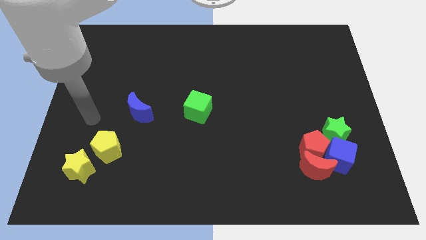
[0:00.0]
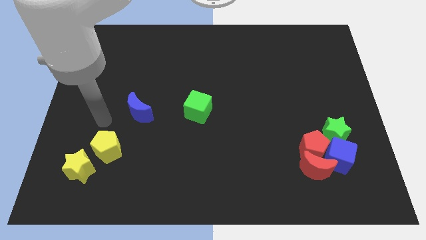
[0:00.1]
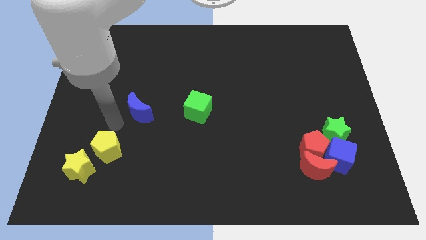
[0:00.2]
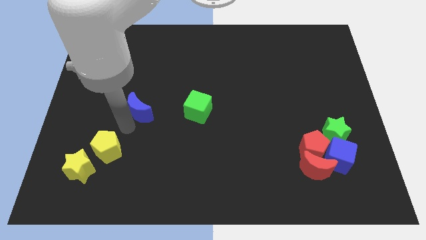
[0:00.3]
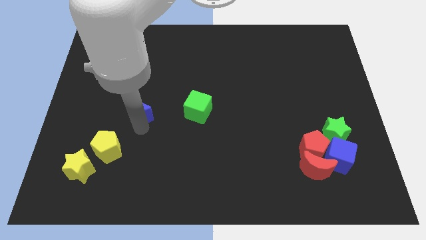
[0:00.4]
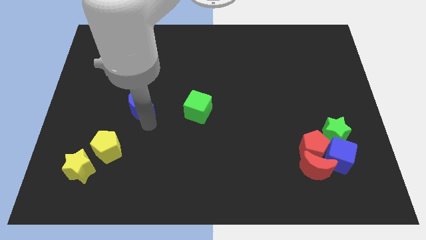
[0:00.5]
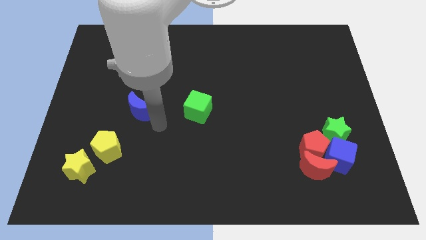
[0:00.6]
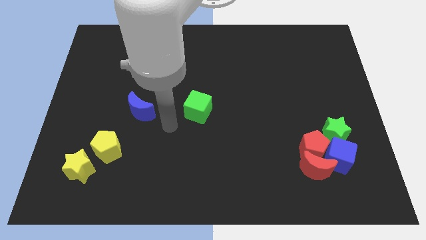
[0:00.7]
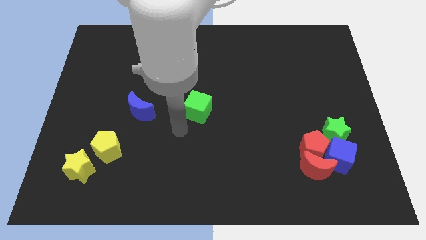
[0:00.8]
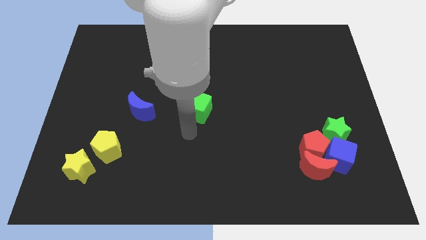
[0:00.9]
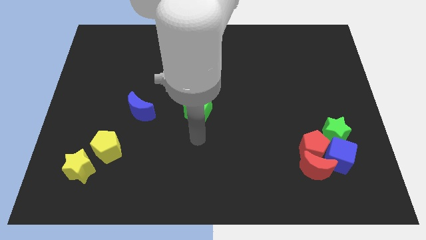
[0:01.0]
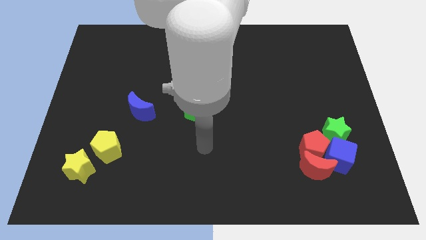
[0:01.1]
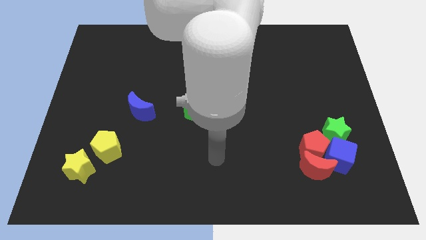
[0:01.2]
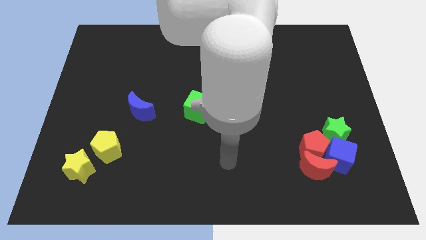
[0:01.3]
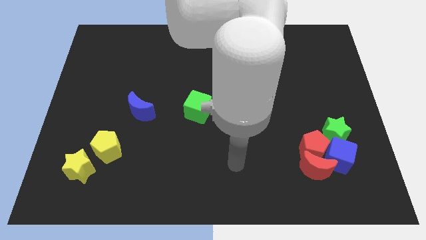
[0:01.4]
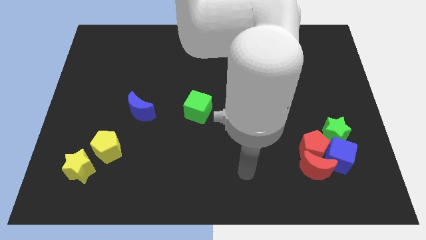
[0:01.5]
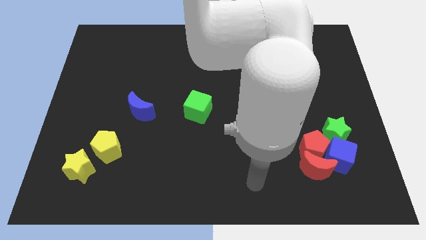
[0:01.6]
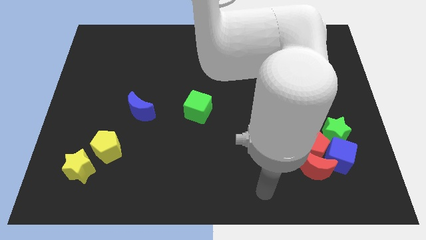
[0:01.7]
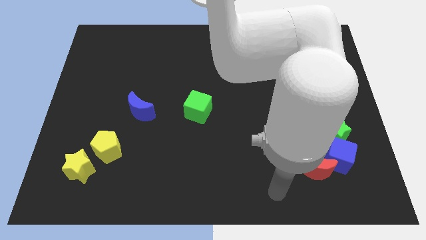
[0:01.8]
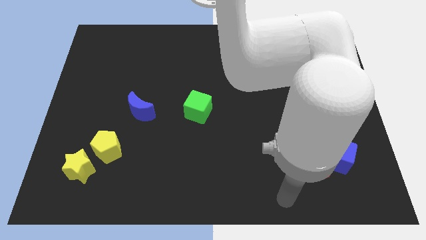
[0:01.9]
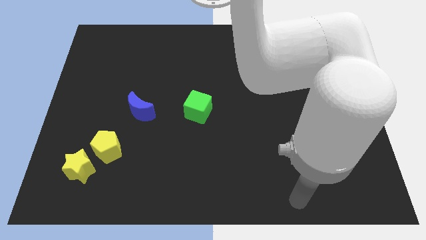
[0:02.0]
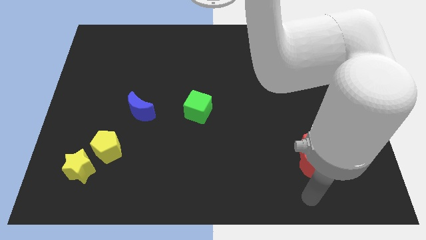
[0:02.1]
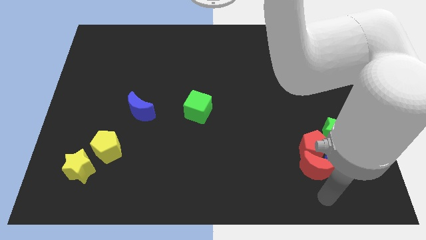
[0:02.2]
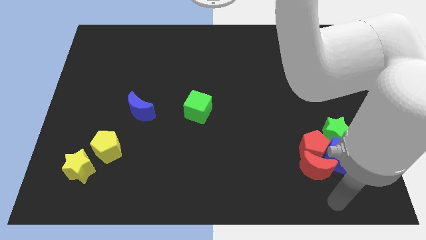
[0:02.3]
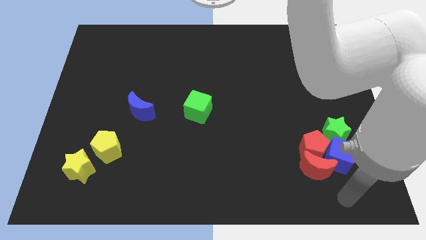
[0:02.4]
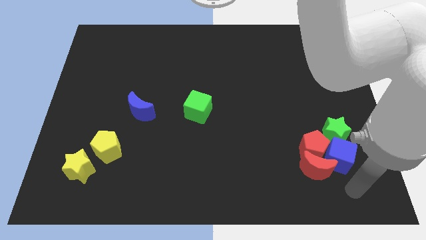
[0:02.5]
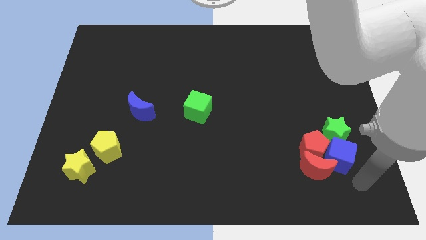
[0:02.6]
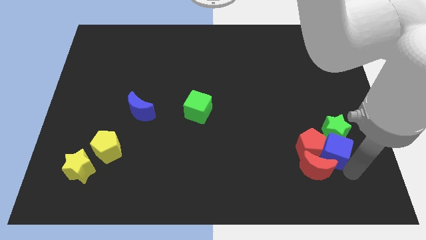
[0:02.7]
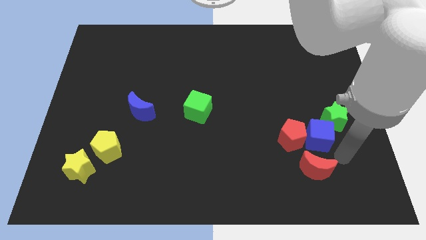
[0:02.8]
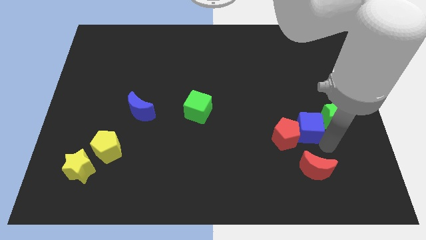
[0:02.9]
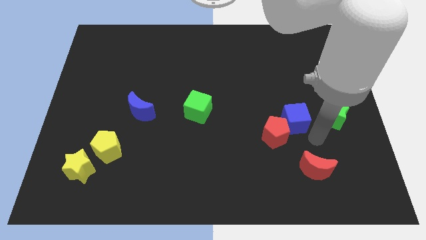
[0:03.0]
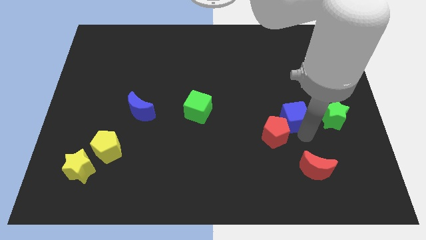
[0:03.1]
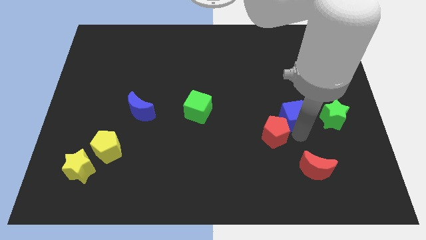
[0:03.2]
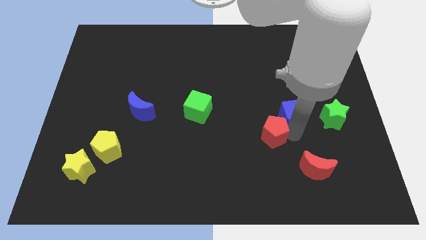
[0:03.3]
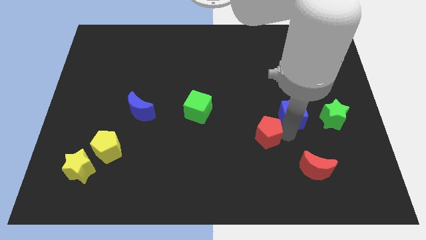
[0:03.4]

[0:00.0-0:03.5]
pull the red pentagon apart from the red moon, blue cube, and green star

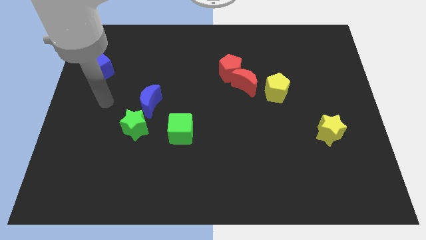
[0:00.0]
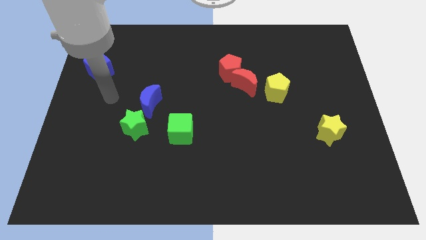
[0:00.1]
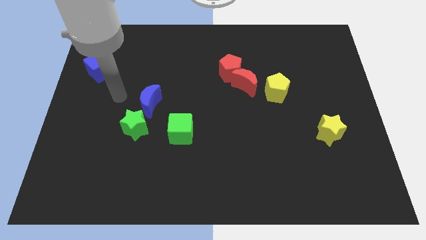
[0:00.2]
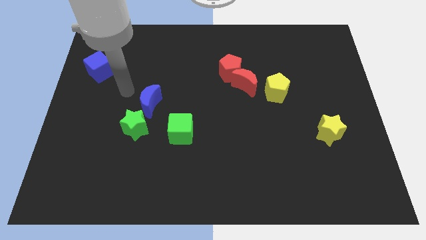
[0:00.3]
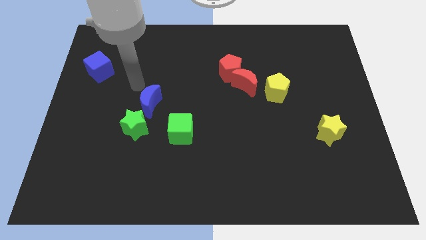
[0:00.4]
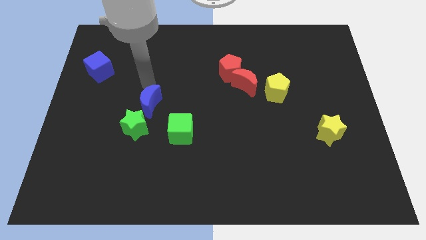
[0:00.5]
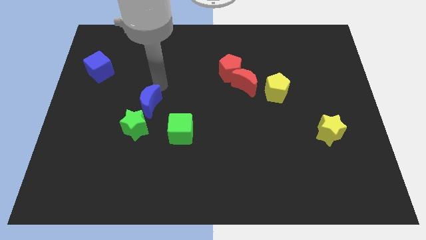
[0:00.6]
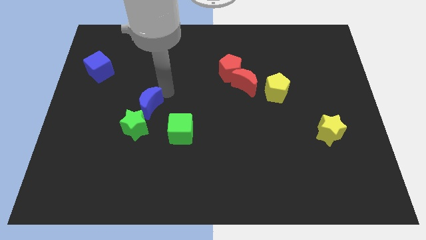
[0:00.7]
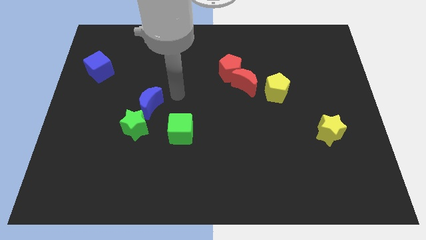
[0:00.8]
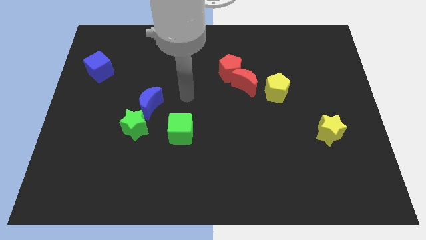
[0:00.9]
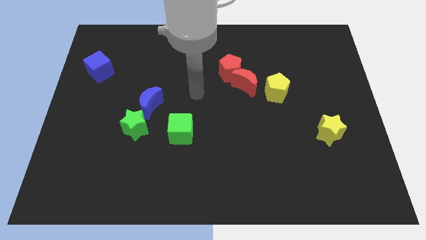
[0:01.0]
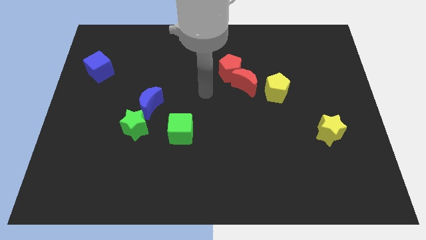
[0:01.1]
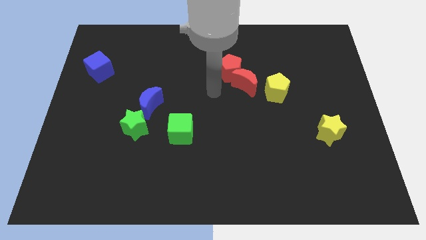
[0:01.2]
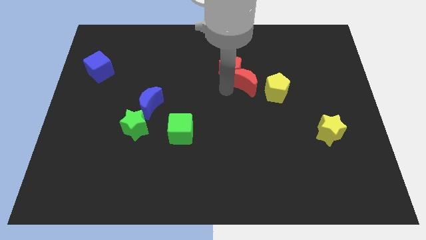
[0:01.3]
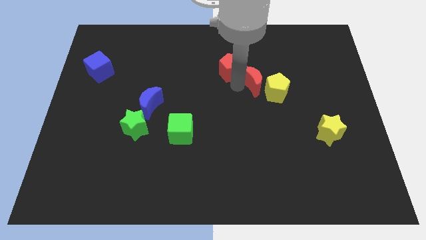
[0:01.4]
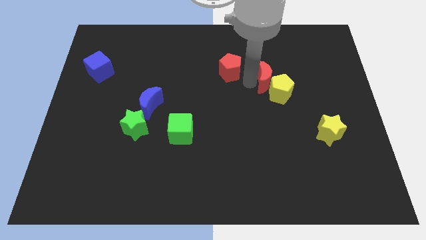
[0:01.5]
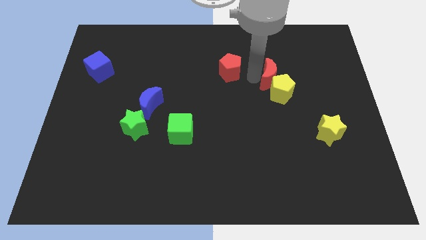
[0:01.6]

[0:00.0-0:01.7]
move the red pentagon away from the red moon

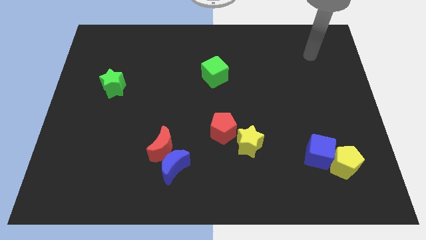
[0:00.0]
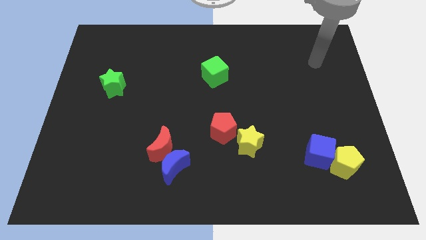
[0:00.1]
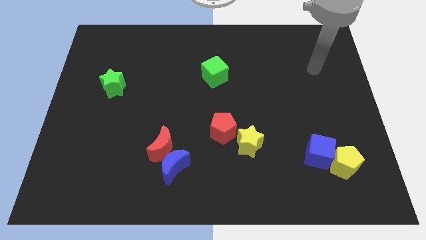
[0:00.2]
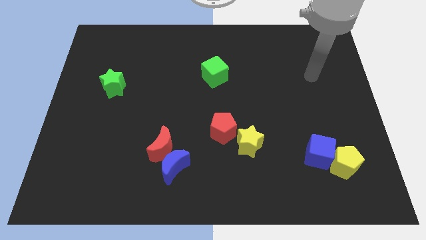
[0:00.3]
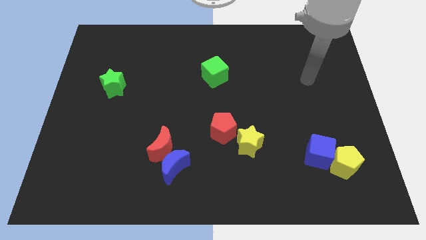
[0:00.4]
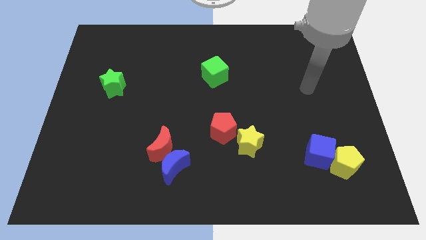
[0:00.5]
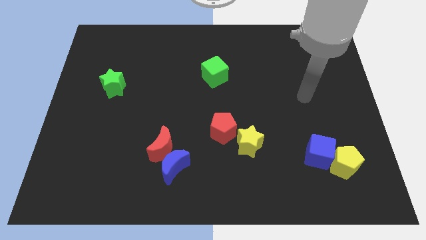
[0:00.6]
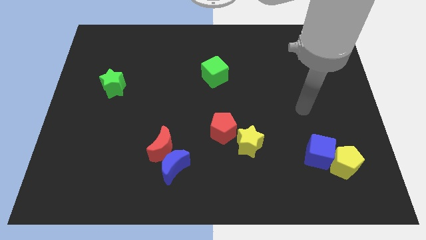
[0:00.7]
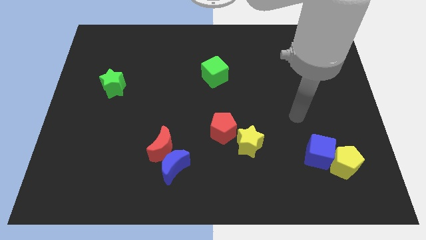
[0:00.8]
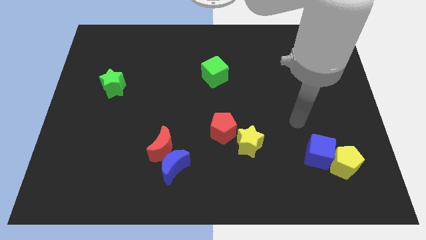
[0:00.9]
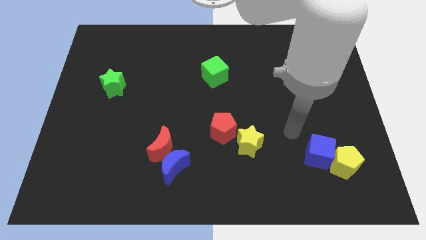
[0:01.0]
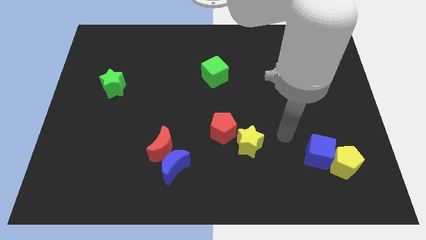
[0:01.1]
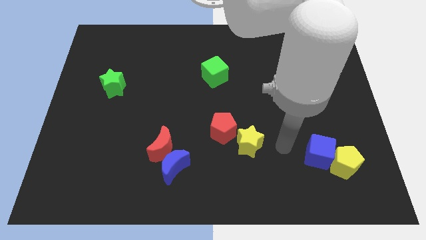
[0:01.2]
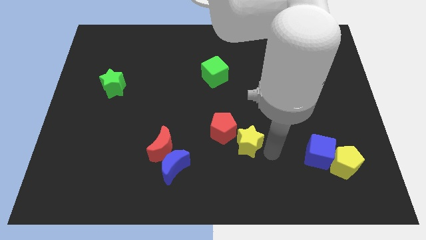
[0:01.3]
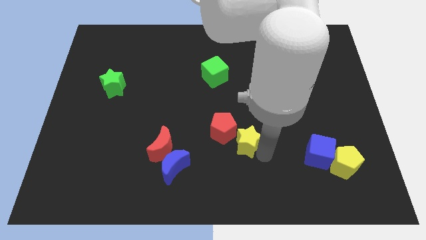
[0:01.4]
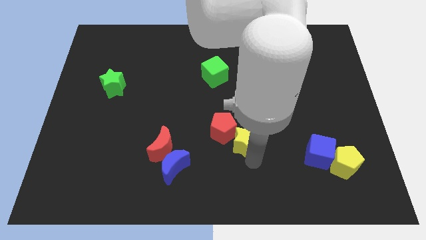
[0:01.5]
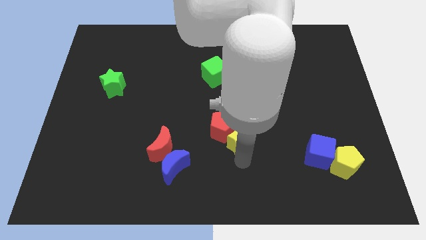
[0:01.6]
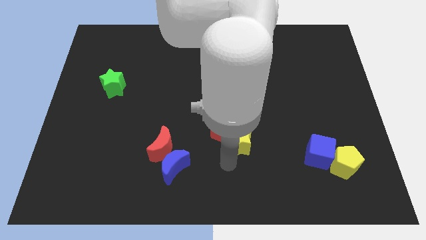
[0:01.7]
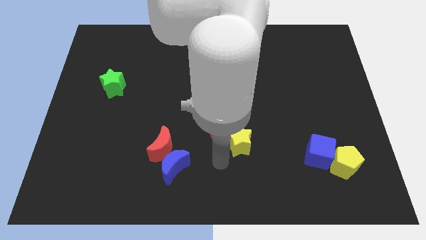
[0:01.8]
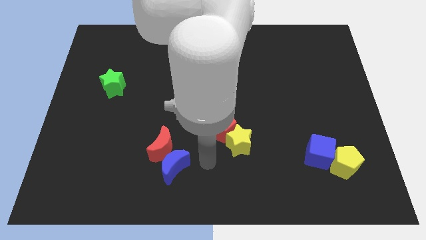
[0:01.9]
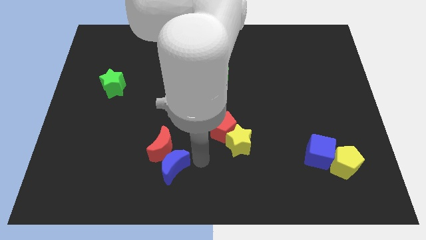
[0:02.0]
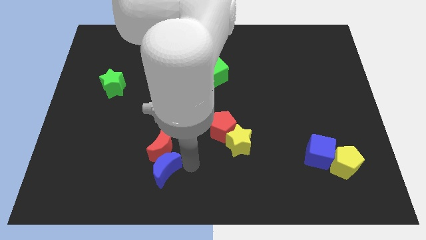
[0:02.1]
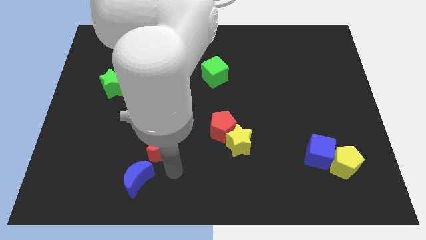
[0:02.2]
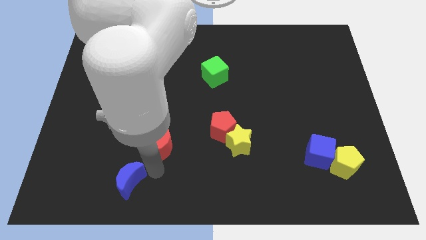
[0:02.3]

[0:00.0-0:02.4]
move the red moon away from the blue moon

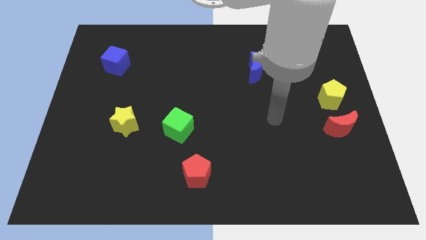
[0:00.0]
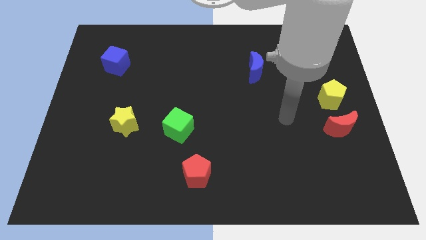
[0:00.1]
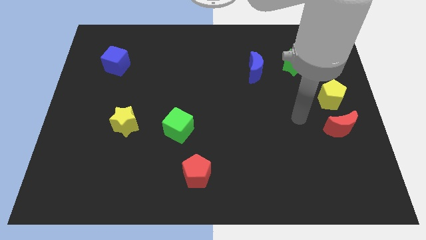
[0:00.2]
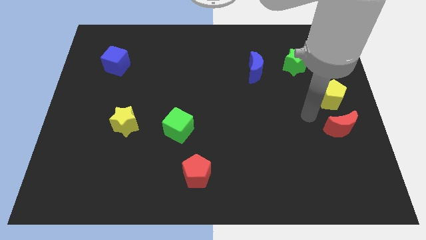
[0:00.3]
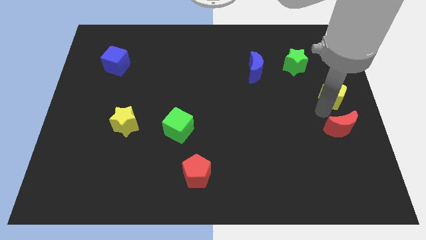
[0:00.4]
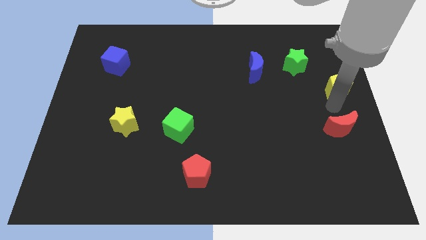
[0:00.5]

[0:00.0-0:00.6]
pull the red moon apart from the yellow pentagon

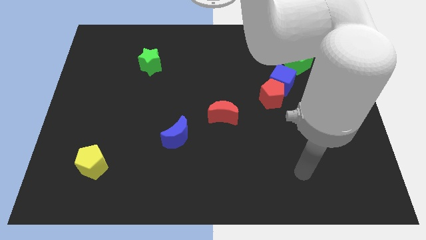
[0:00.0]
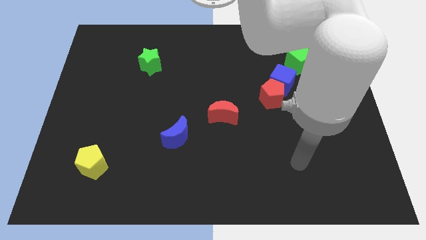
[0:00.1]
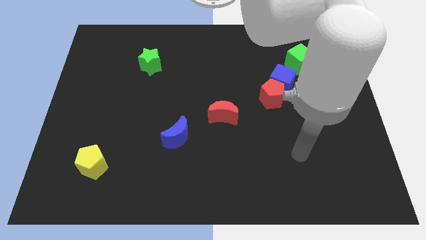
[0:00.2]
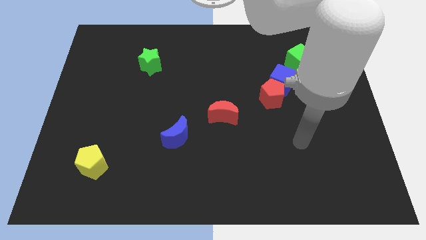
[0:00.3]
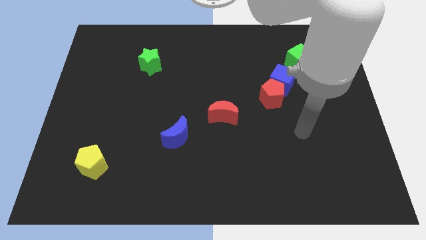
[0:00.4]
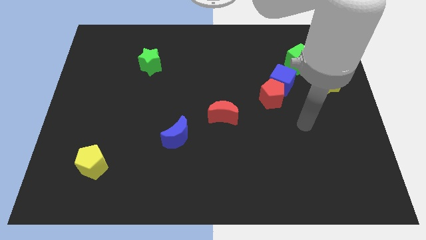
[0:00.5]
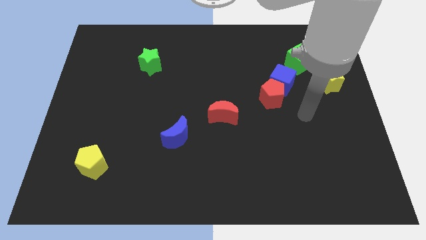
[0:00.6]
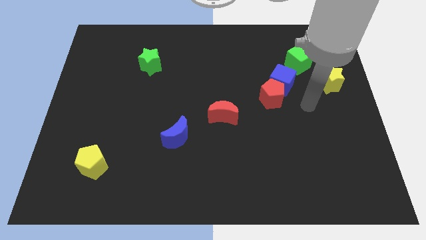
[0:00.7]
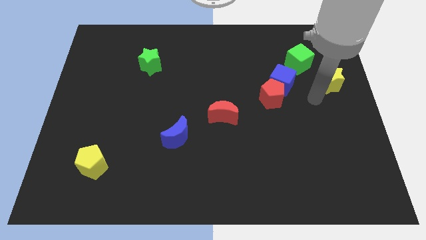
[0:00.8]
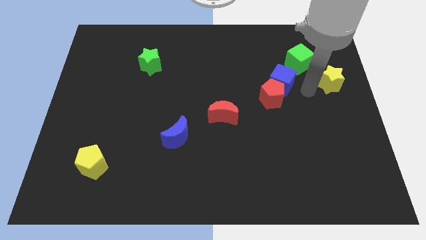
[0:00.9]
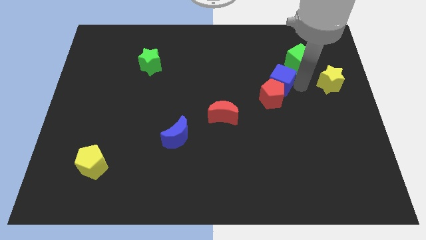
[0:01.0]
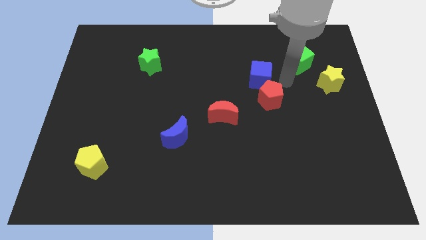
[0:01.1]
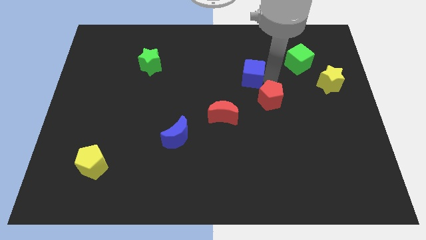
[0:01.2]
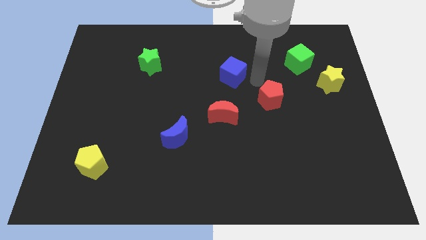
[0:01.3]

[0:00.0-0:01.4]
pull the red pentagon apart from the blue cube
